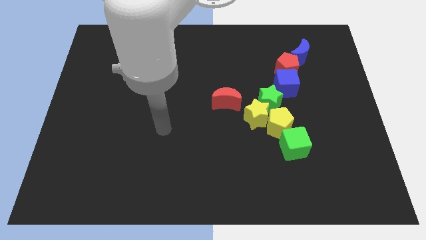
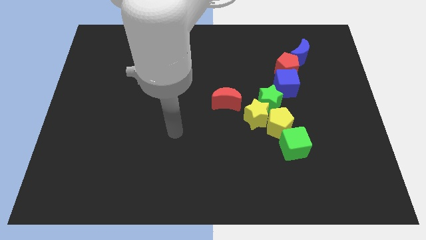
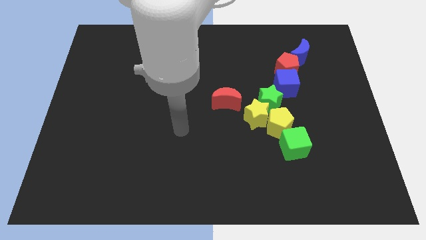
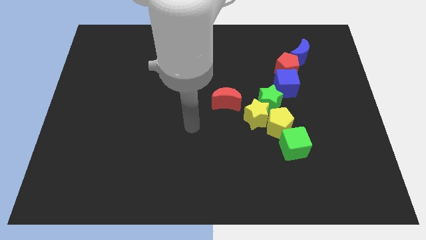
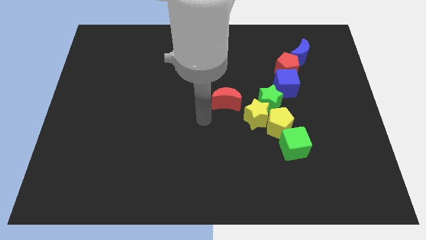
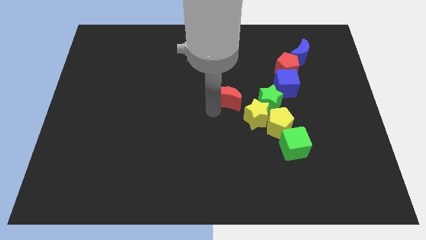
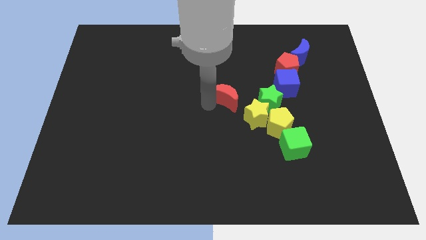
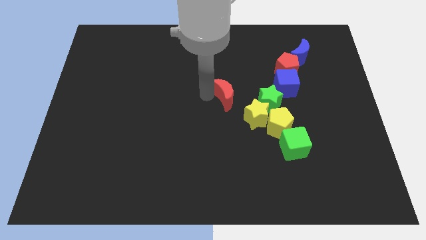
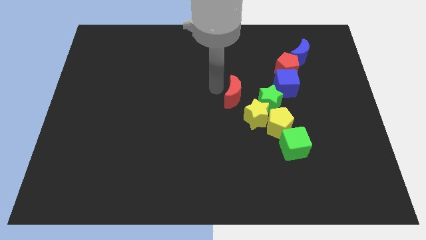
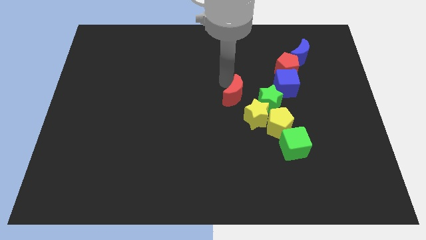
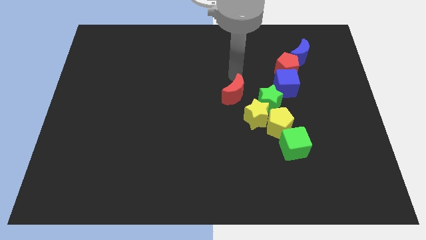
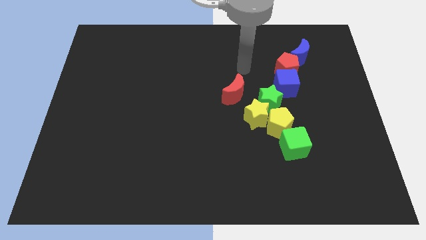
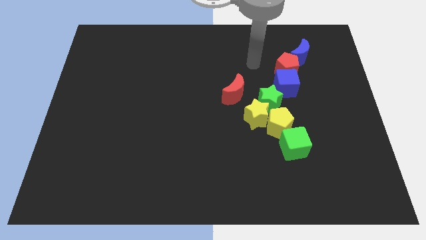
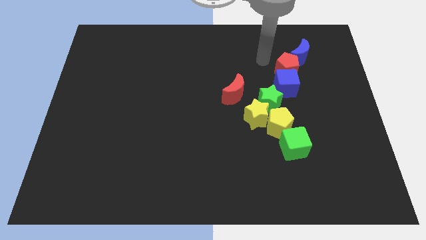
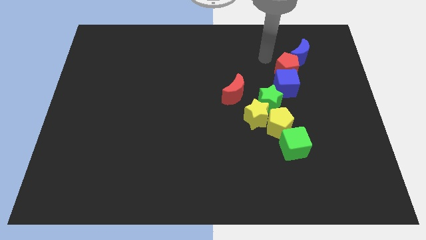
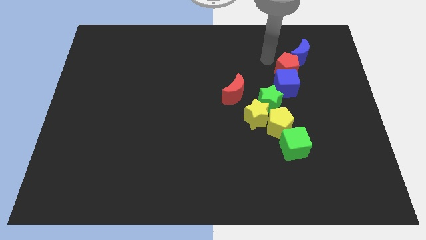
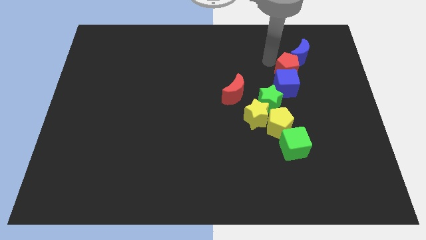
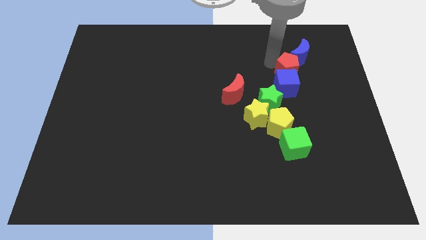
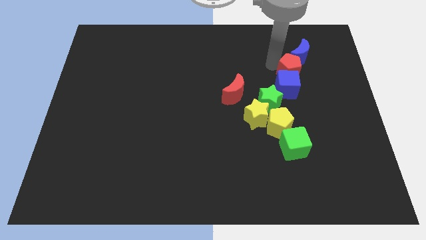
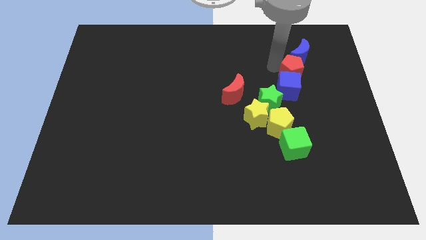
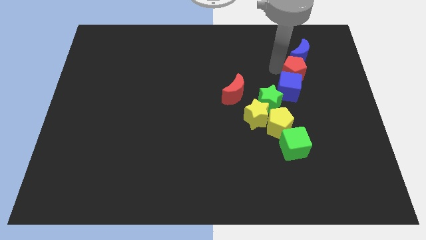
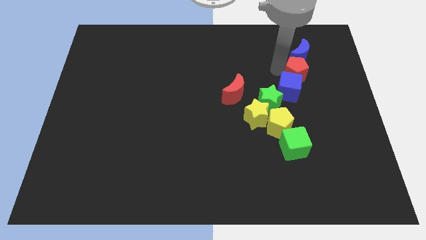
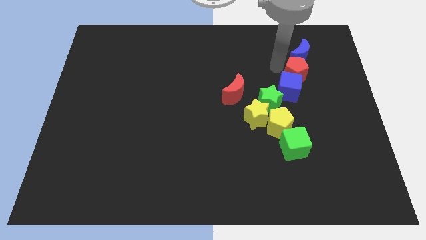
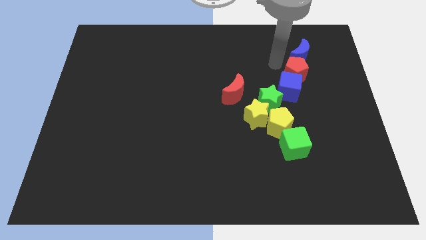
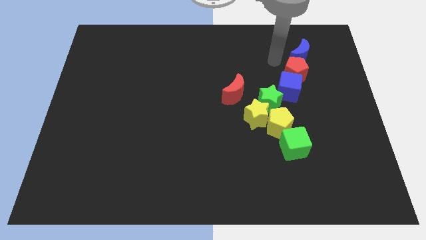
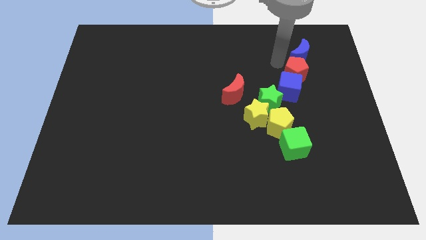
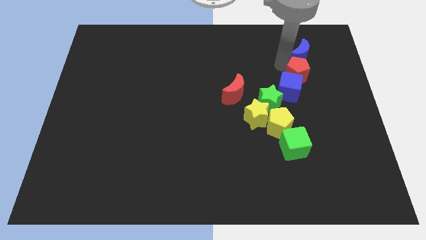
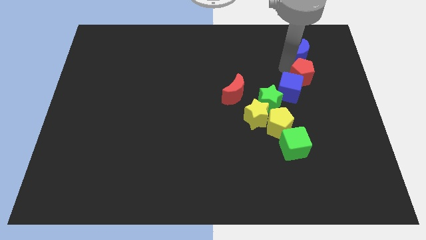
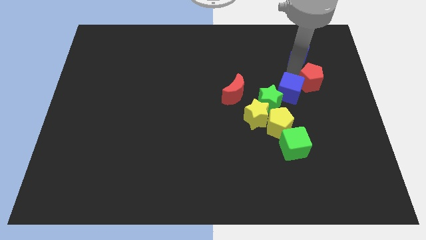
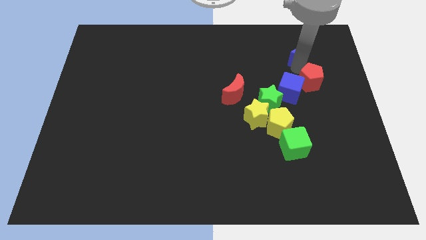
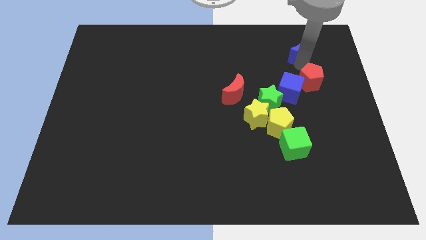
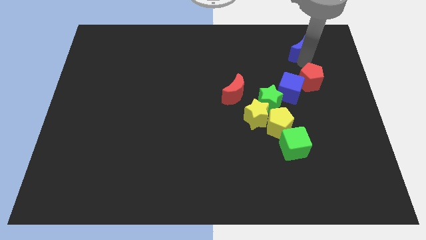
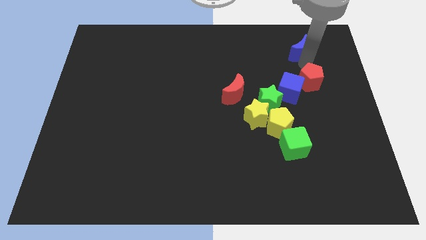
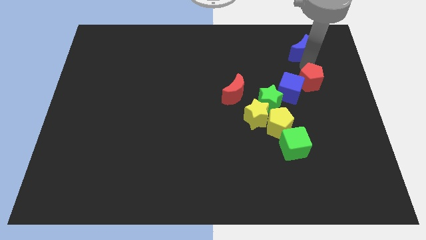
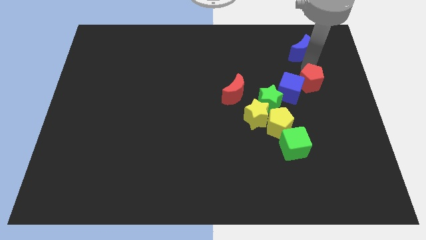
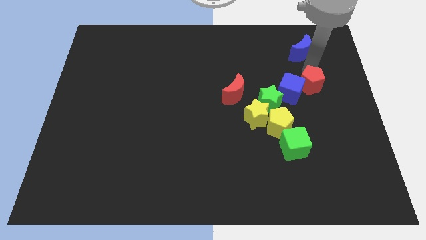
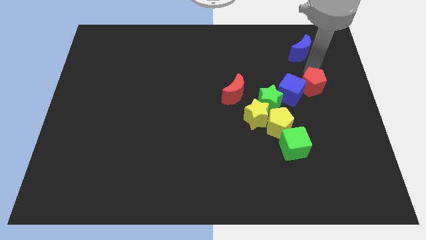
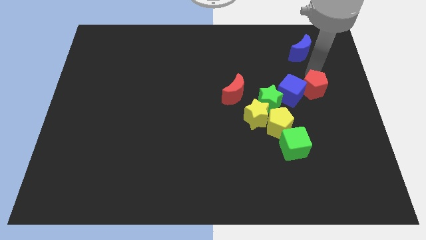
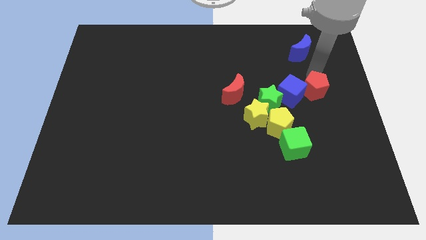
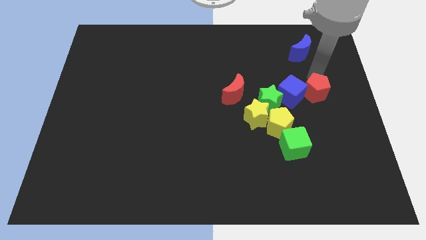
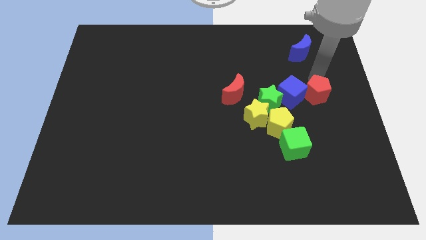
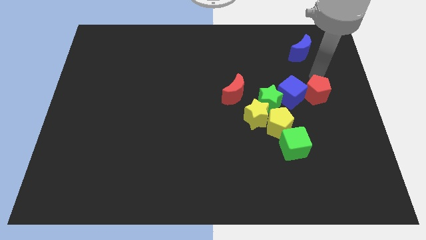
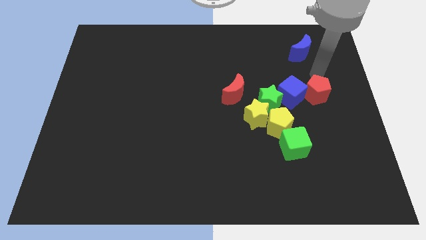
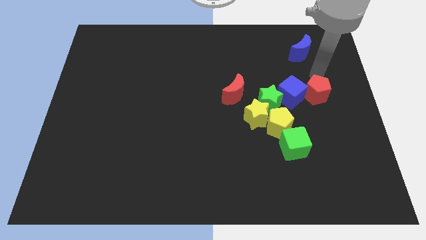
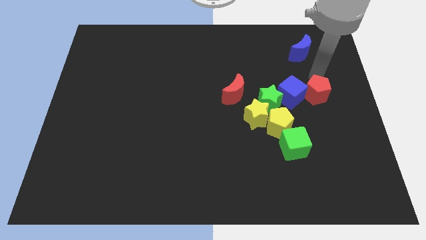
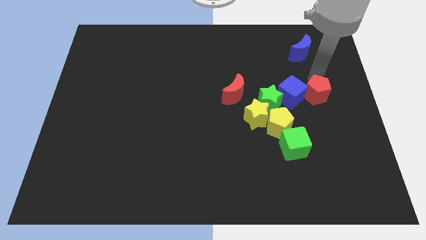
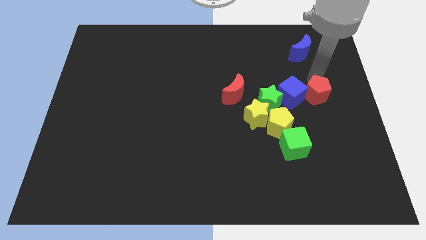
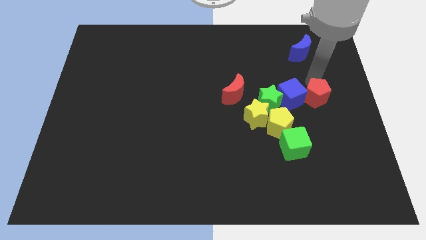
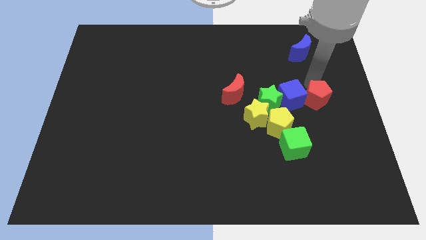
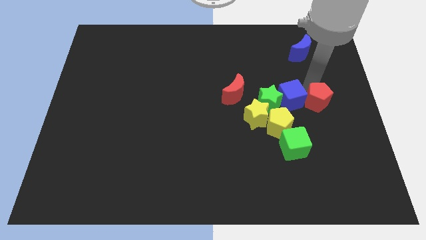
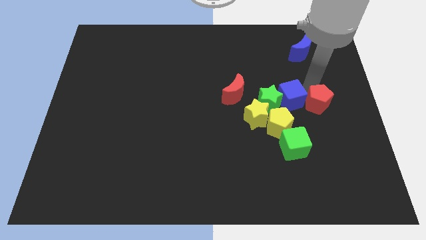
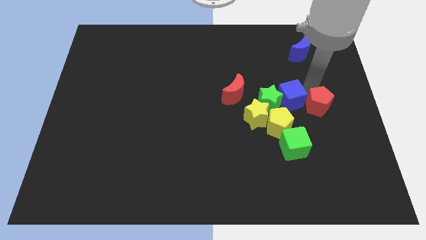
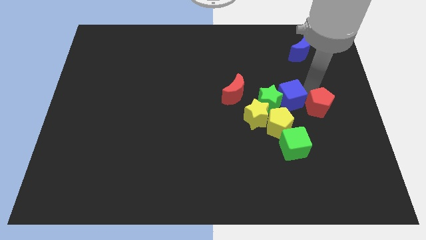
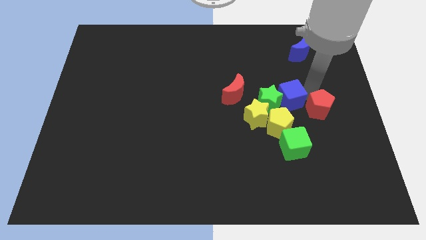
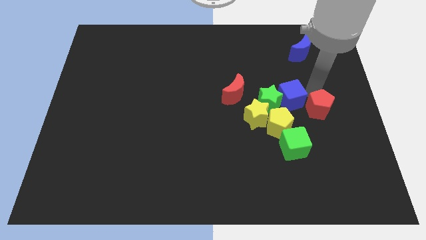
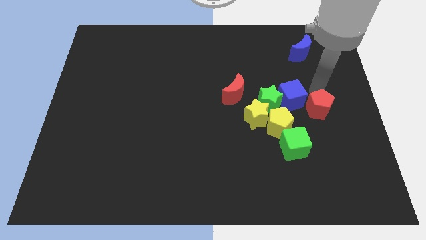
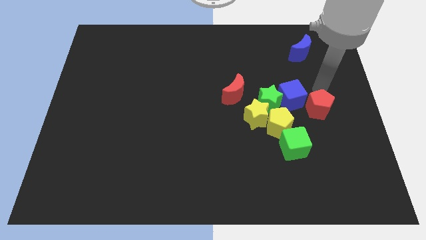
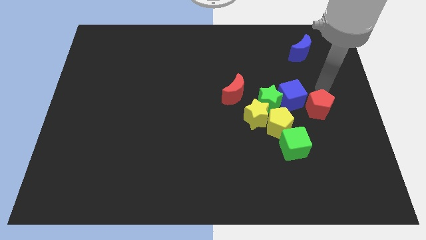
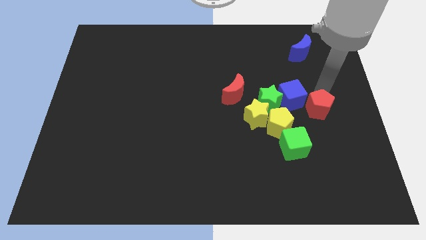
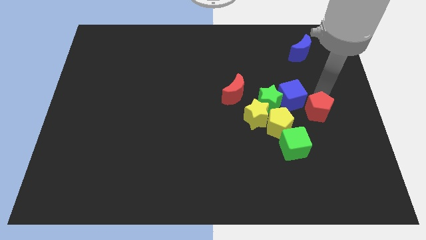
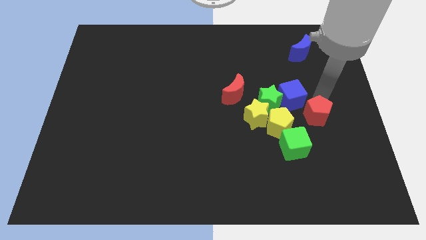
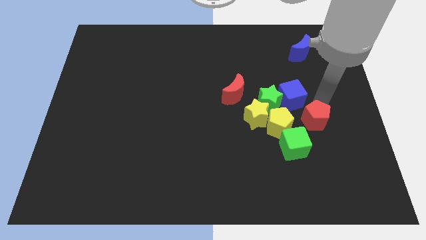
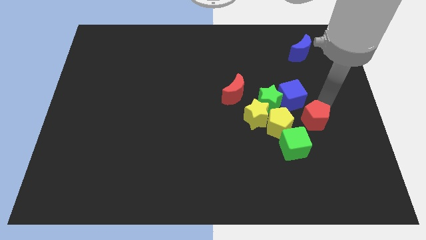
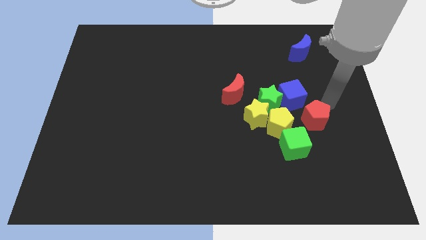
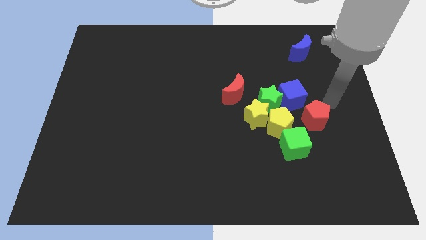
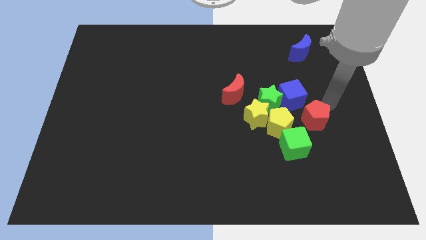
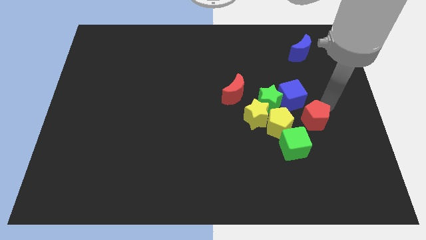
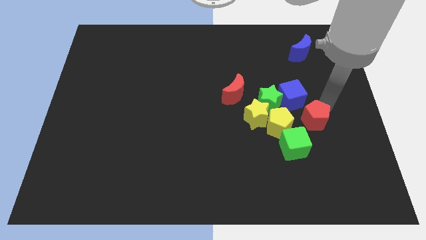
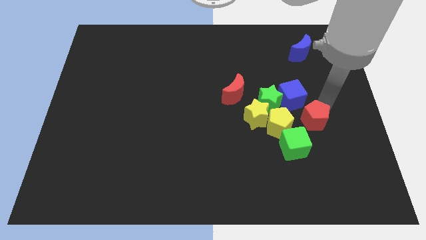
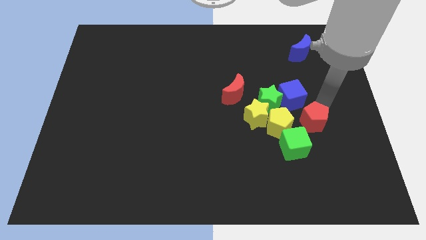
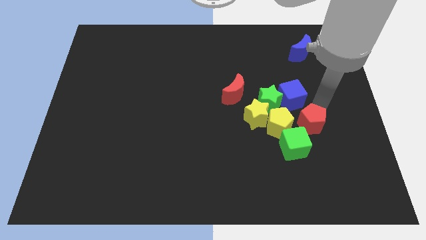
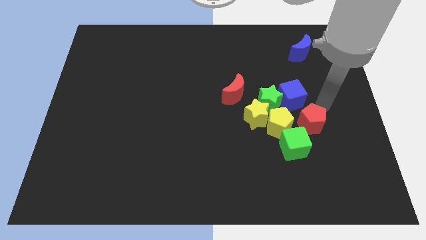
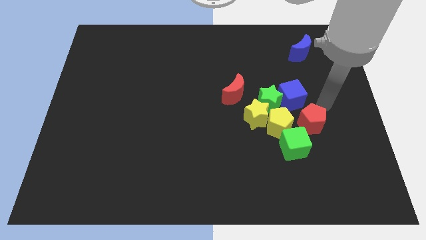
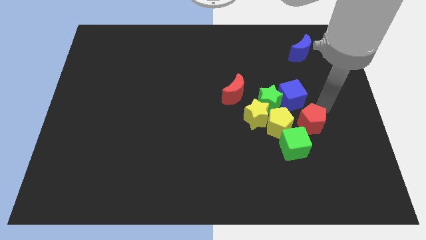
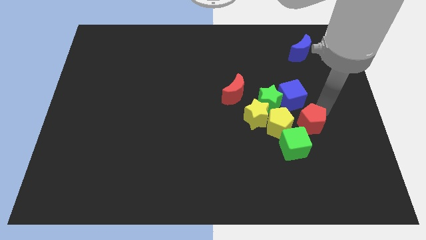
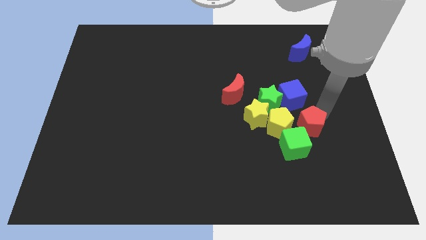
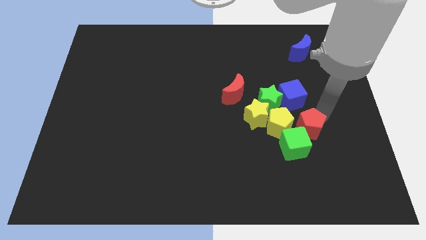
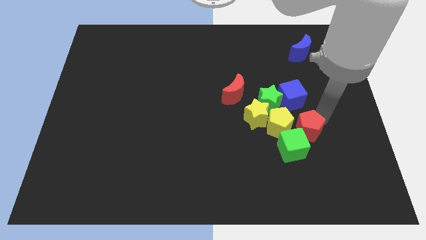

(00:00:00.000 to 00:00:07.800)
move the red pentagon next to the green cube
